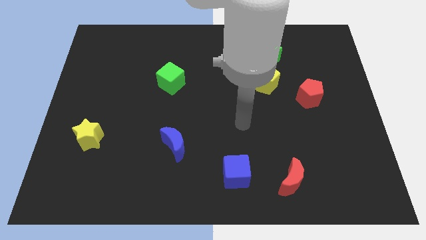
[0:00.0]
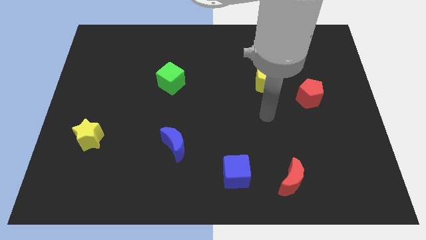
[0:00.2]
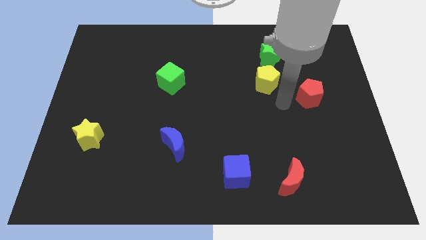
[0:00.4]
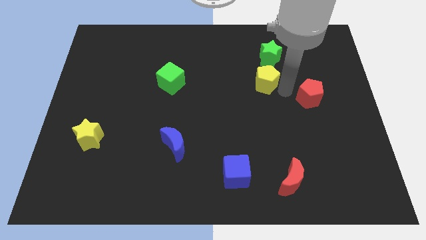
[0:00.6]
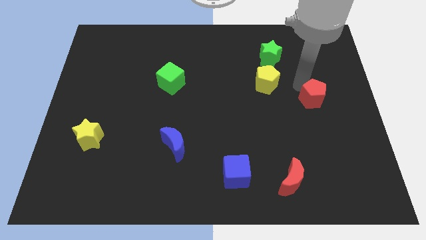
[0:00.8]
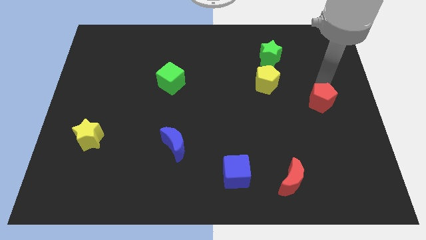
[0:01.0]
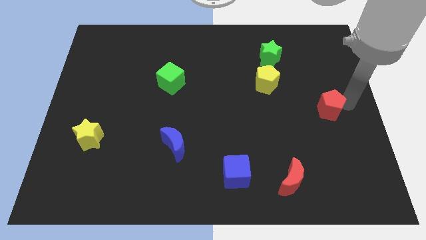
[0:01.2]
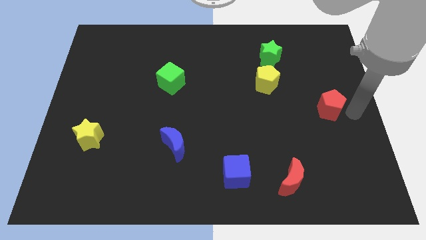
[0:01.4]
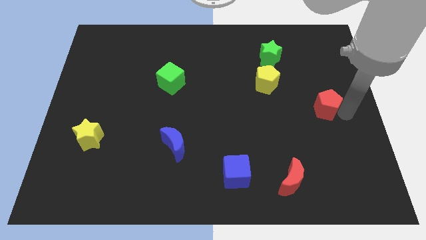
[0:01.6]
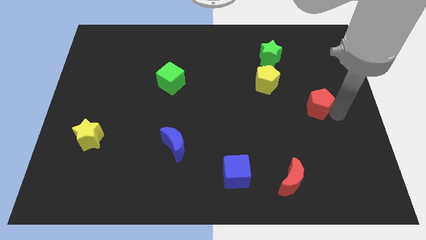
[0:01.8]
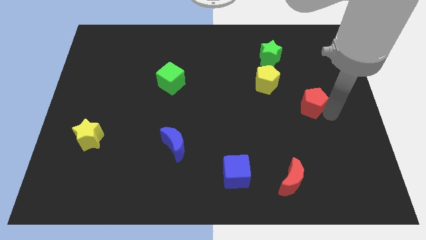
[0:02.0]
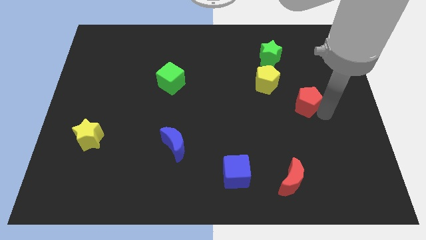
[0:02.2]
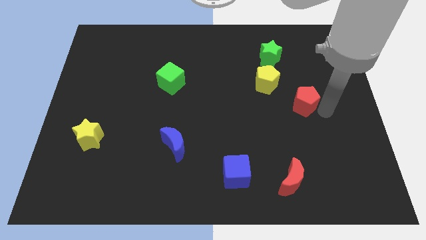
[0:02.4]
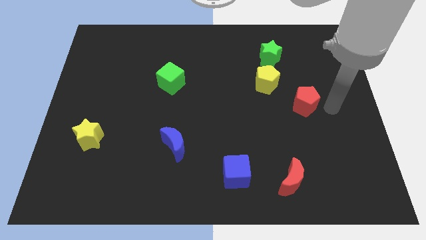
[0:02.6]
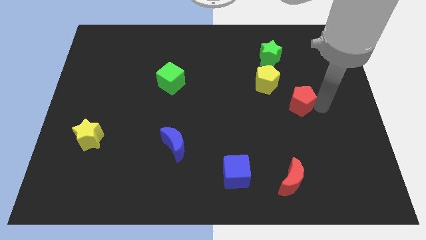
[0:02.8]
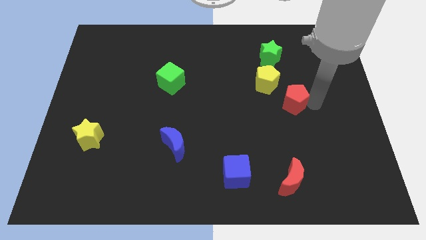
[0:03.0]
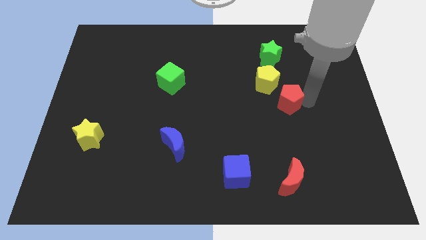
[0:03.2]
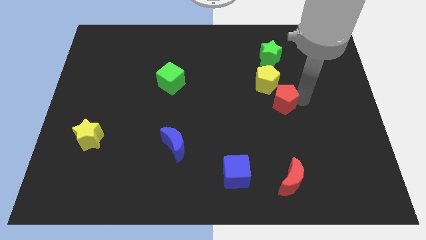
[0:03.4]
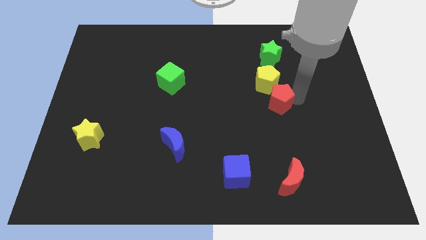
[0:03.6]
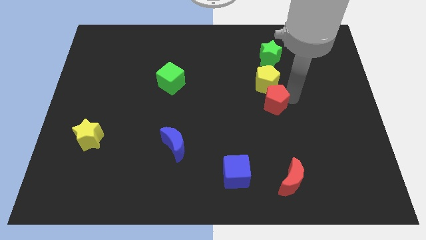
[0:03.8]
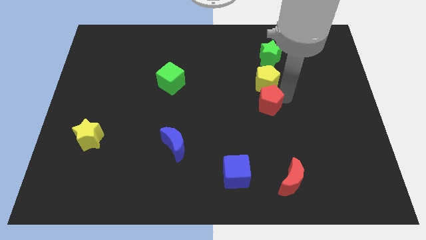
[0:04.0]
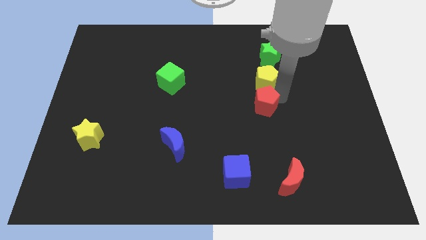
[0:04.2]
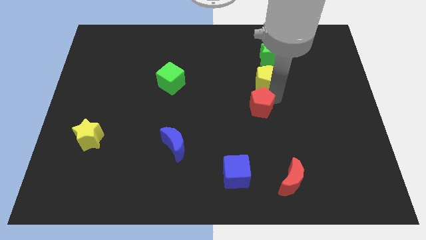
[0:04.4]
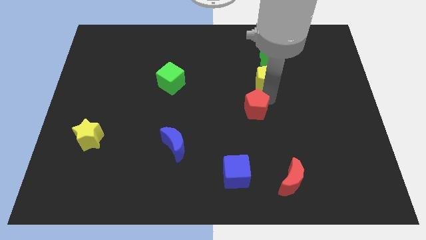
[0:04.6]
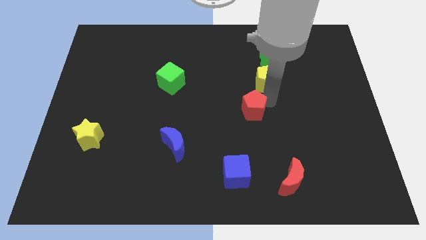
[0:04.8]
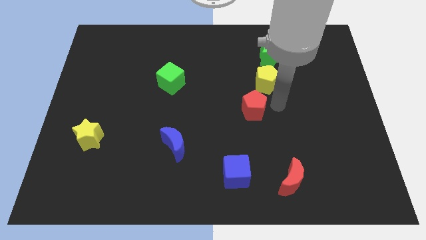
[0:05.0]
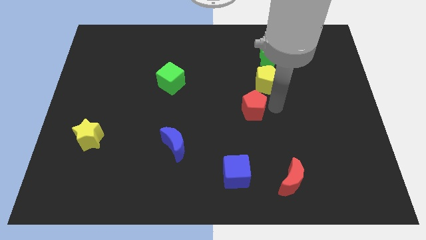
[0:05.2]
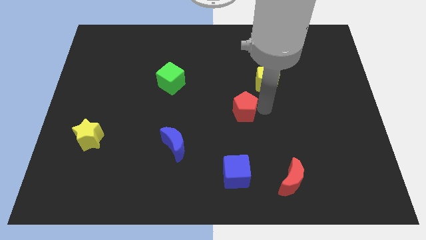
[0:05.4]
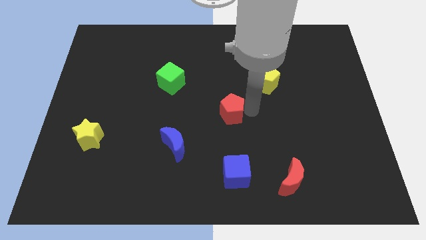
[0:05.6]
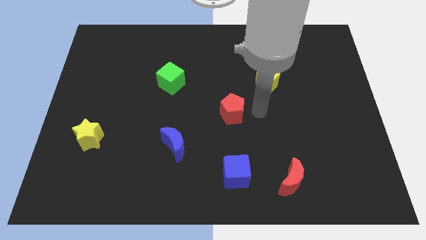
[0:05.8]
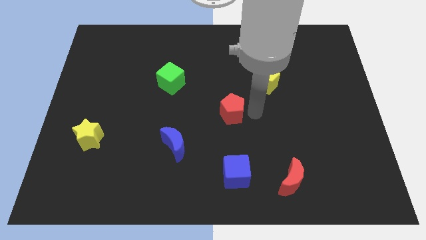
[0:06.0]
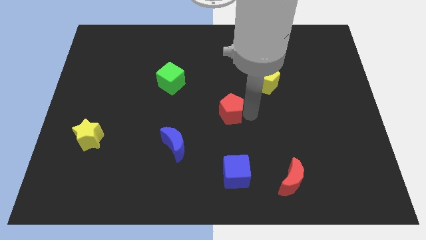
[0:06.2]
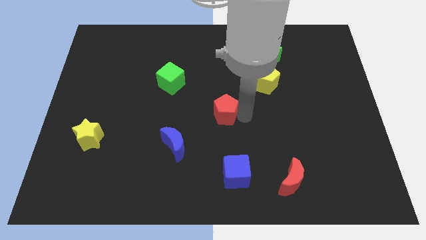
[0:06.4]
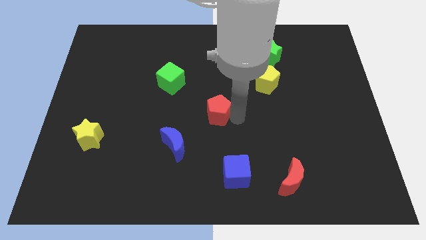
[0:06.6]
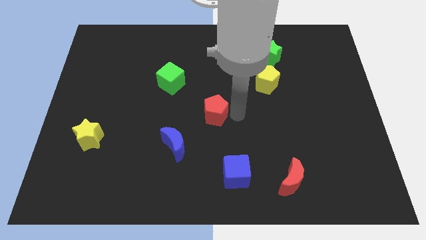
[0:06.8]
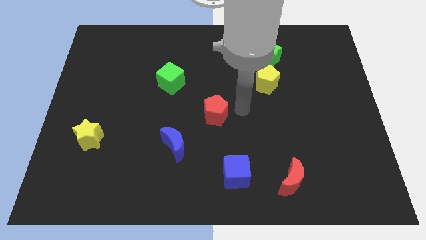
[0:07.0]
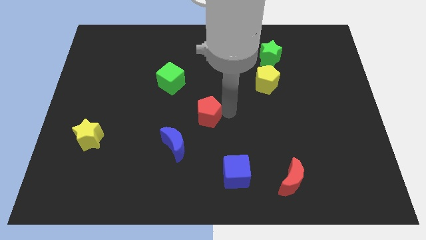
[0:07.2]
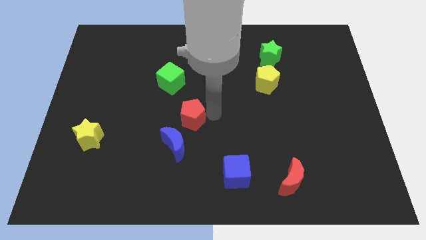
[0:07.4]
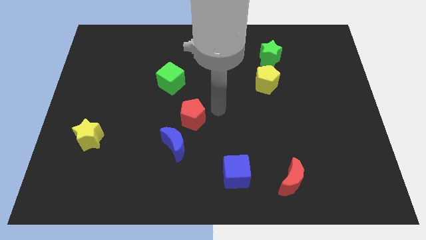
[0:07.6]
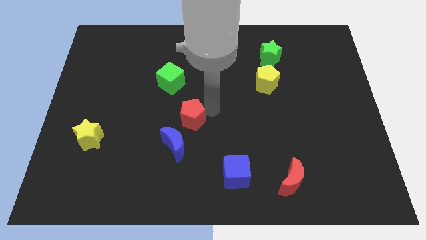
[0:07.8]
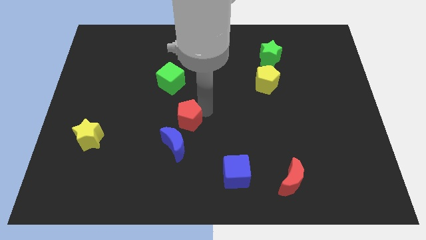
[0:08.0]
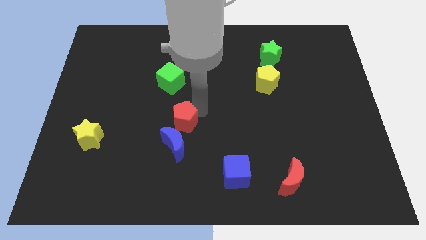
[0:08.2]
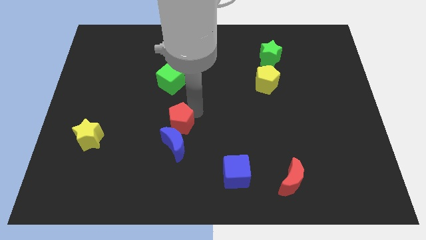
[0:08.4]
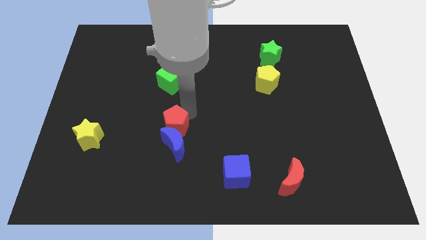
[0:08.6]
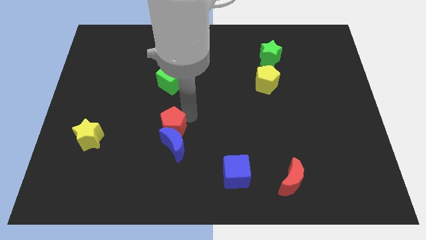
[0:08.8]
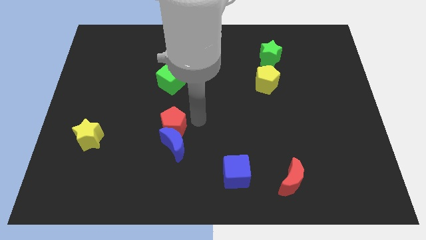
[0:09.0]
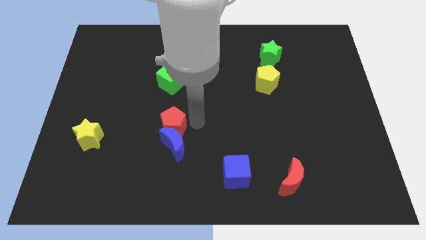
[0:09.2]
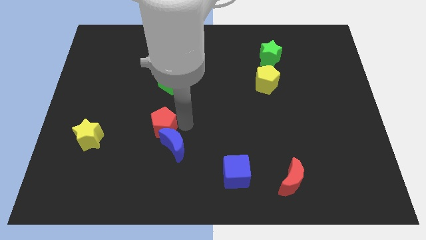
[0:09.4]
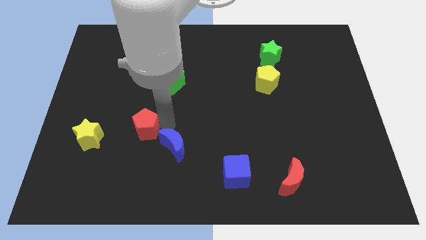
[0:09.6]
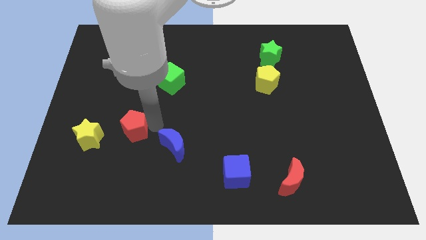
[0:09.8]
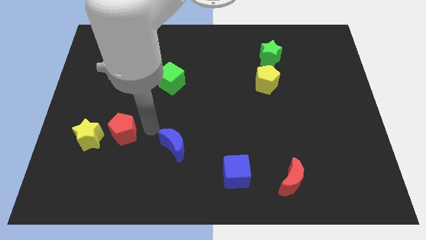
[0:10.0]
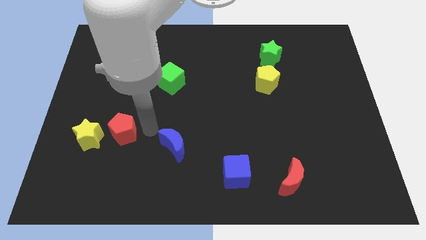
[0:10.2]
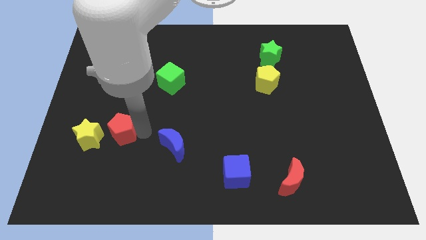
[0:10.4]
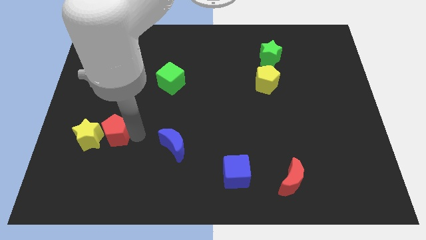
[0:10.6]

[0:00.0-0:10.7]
move the red pentagon towards the yellow star

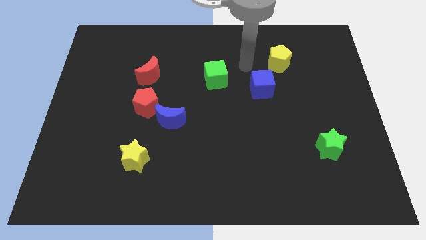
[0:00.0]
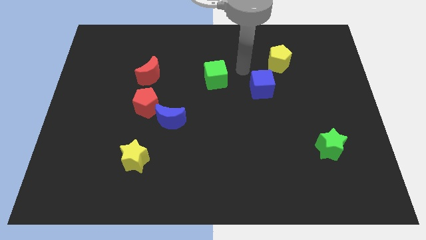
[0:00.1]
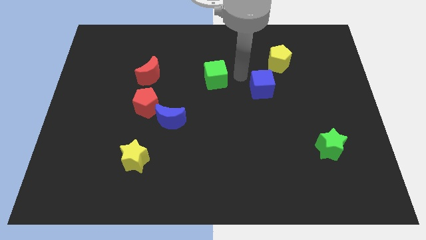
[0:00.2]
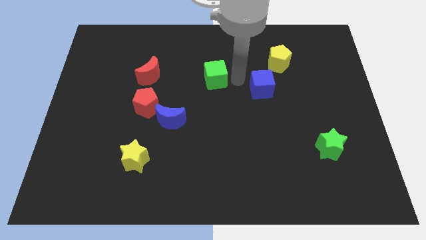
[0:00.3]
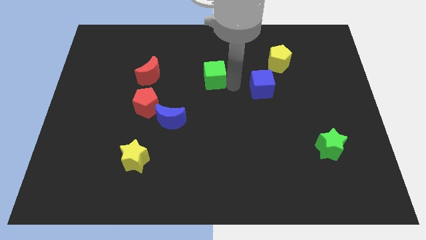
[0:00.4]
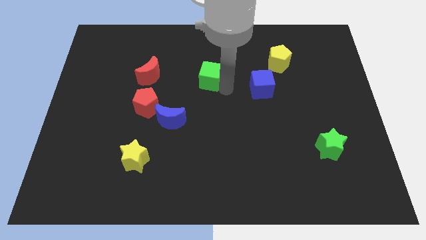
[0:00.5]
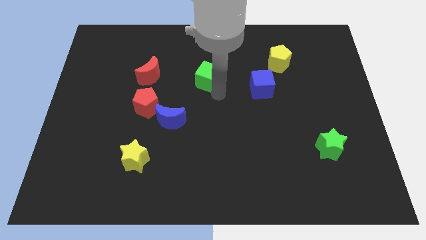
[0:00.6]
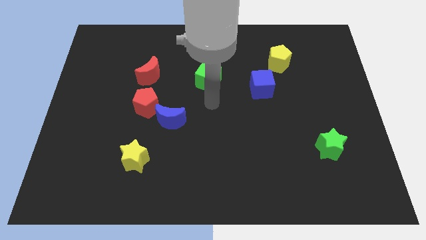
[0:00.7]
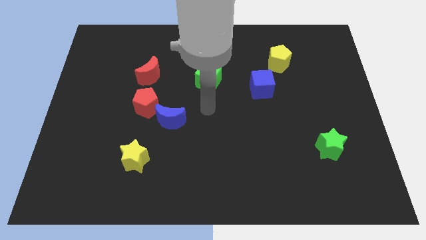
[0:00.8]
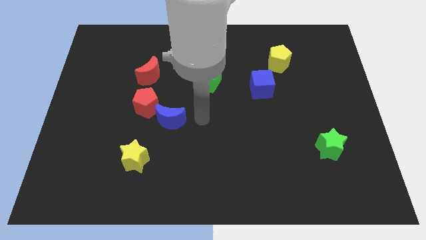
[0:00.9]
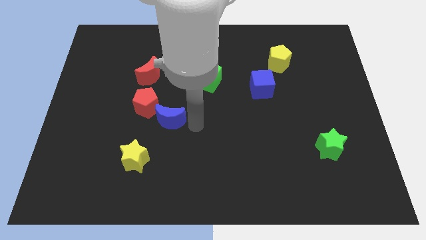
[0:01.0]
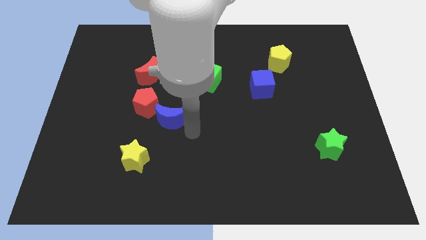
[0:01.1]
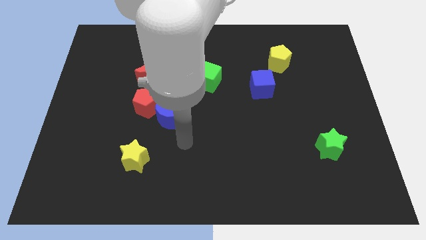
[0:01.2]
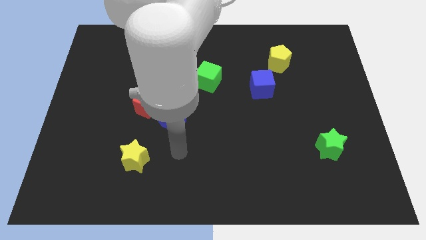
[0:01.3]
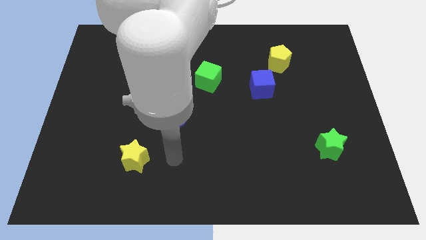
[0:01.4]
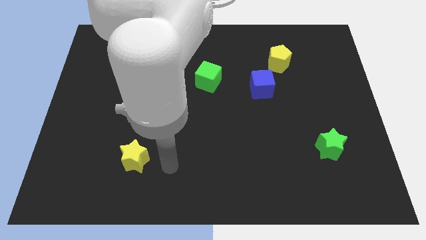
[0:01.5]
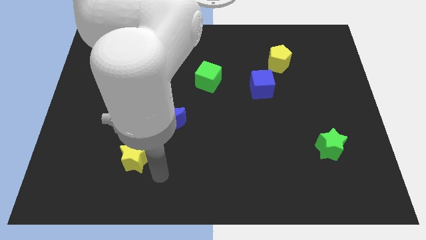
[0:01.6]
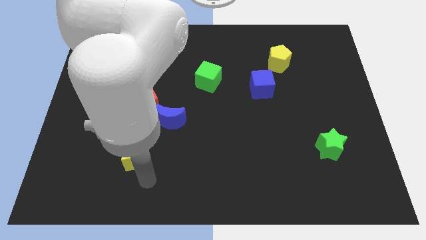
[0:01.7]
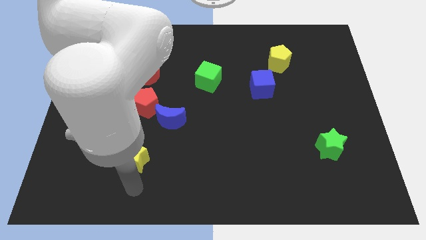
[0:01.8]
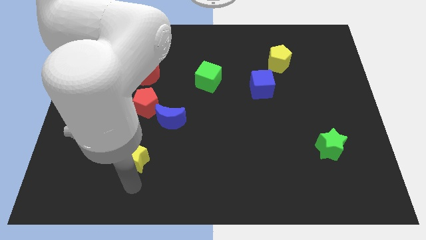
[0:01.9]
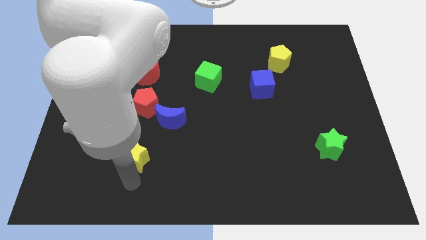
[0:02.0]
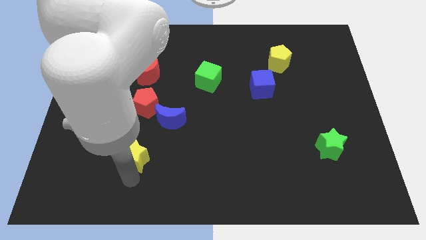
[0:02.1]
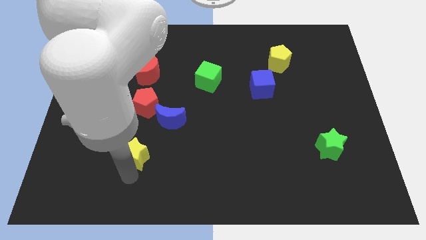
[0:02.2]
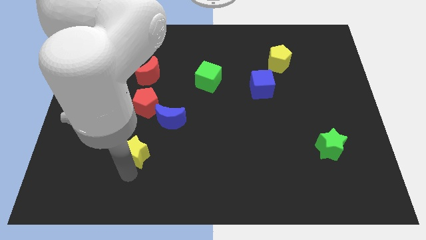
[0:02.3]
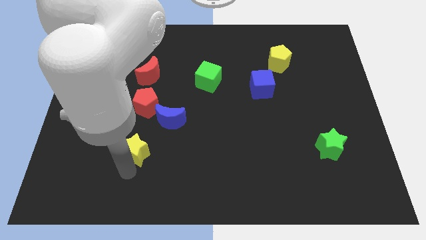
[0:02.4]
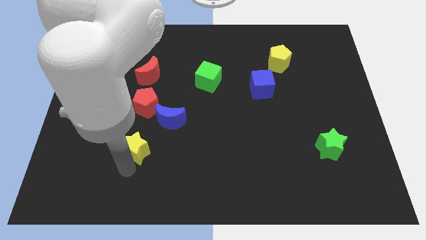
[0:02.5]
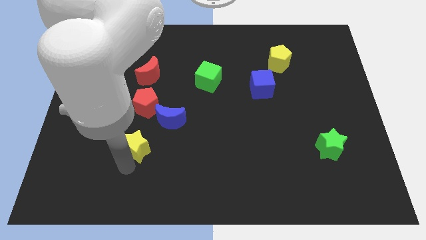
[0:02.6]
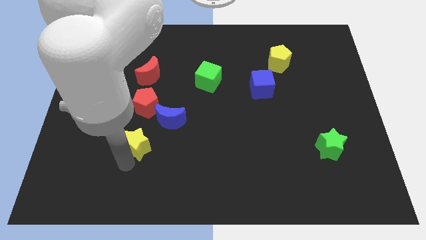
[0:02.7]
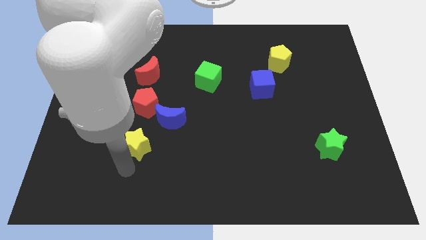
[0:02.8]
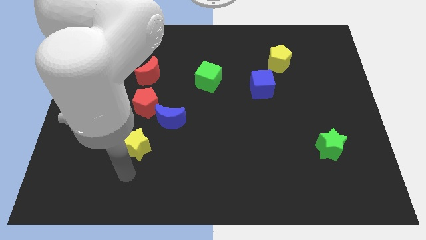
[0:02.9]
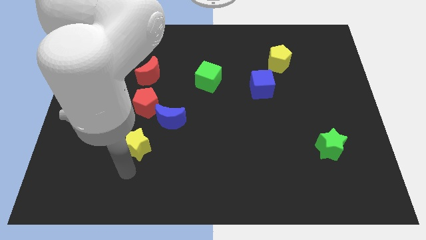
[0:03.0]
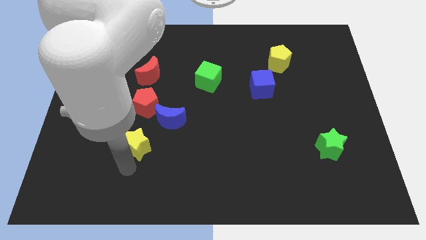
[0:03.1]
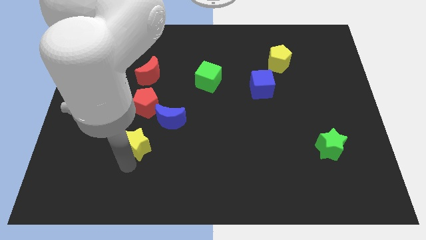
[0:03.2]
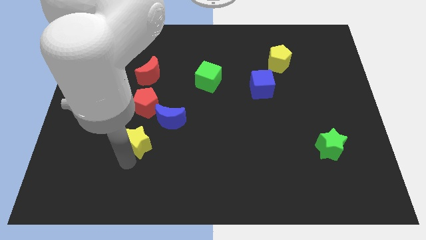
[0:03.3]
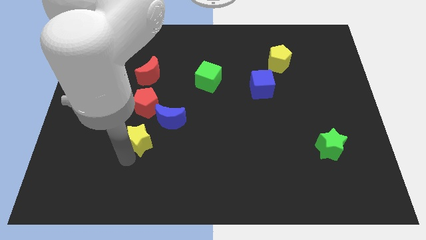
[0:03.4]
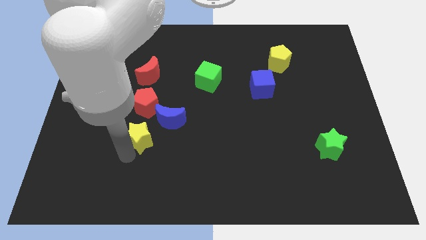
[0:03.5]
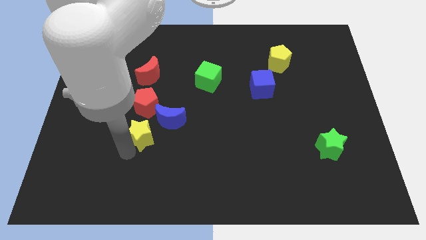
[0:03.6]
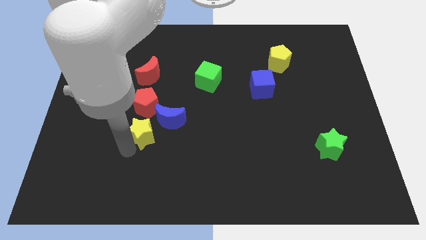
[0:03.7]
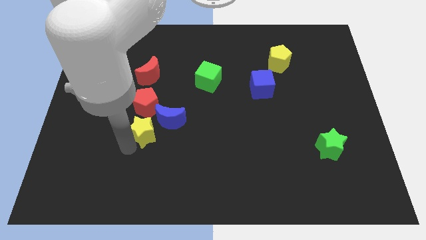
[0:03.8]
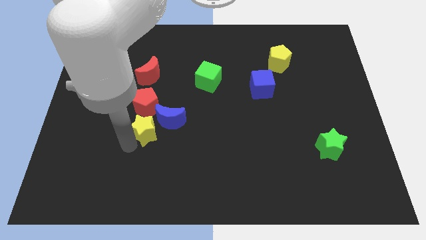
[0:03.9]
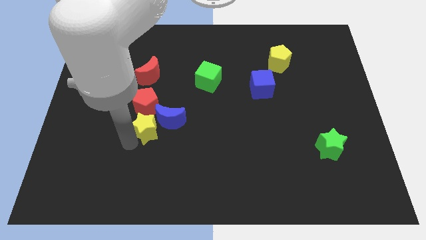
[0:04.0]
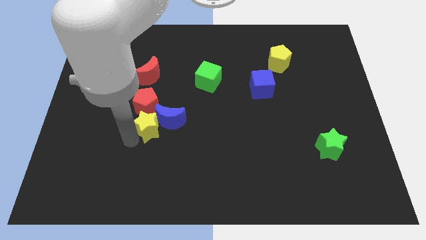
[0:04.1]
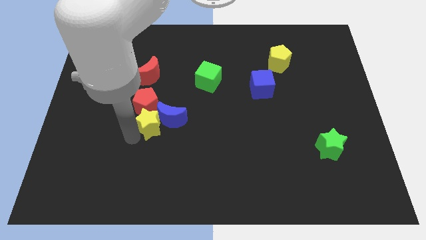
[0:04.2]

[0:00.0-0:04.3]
put the yellow star towards the red pentagon
